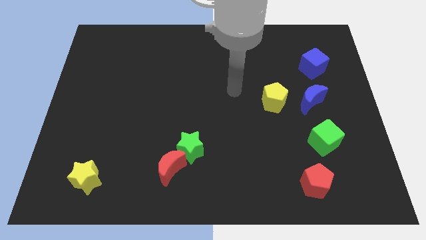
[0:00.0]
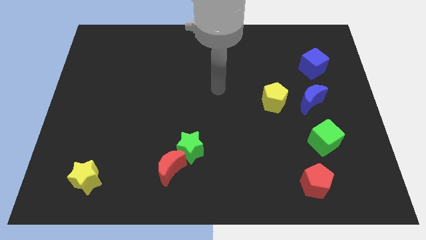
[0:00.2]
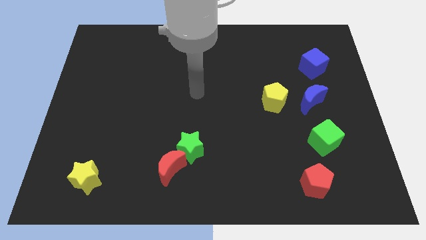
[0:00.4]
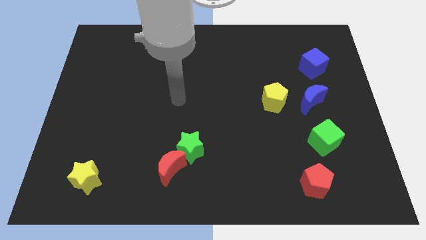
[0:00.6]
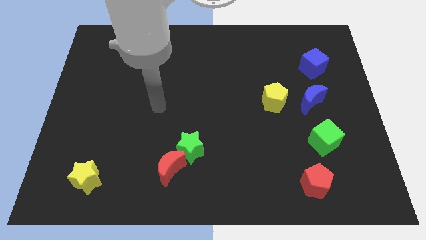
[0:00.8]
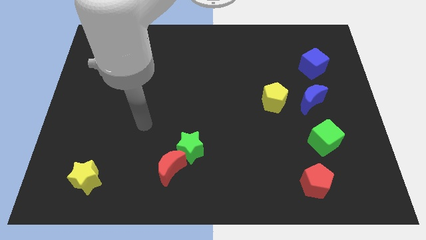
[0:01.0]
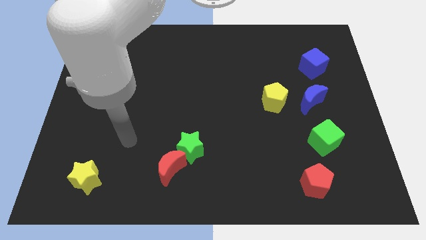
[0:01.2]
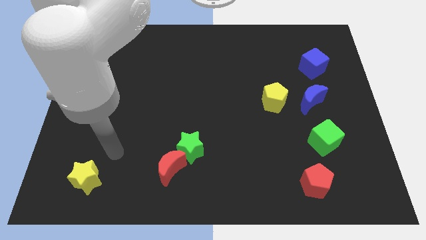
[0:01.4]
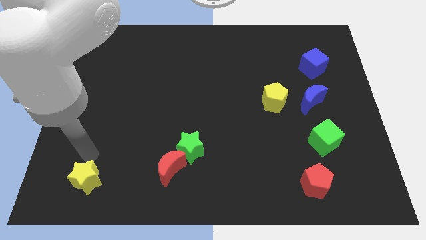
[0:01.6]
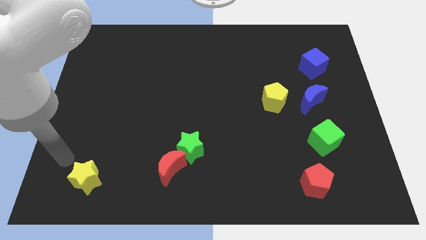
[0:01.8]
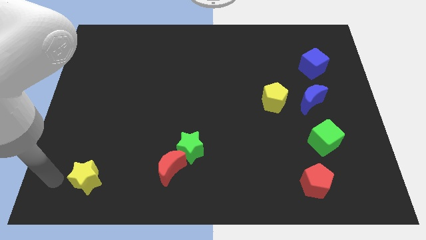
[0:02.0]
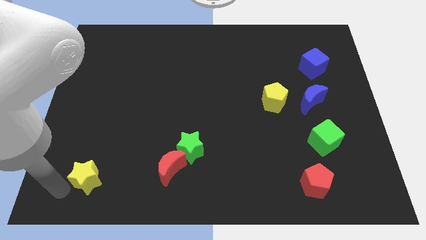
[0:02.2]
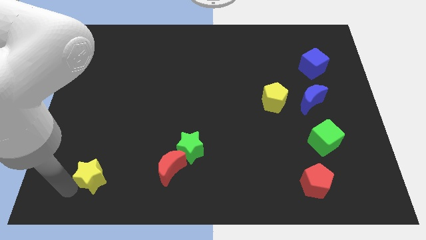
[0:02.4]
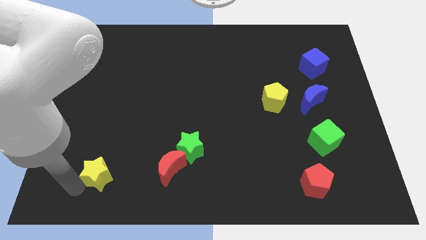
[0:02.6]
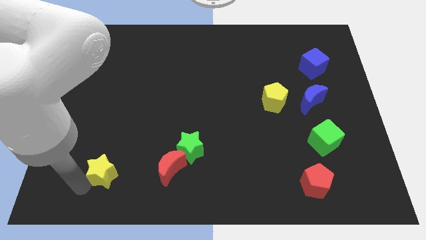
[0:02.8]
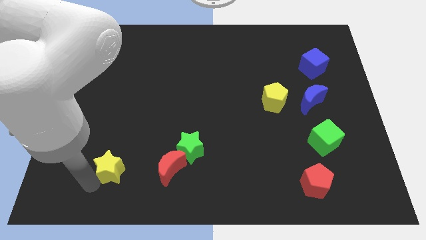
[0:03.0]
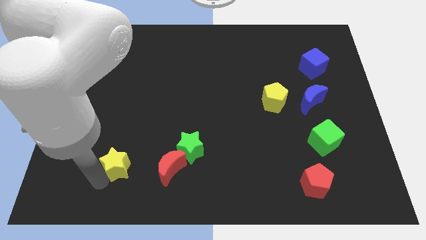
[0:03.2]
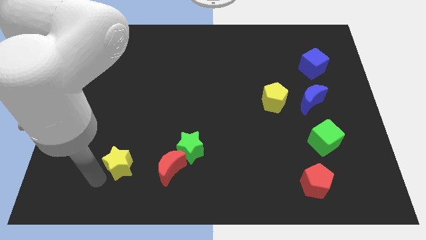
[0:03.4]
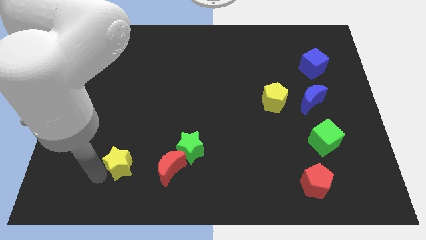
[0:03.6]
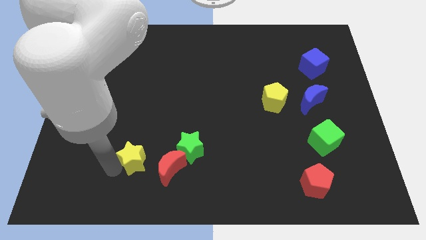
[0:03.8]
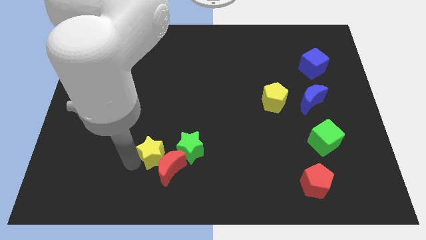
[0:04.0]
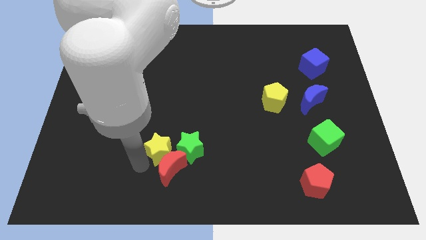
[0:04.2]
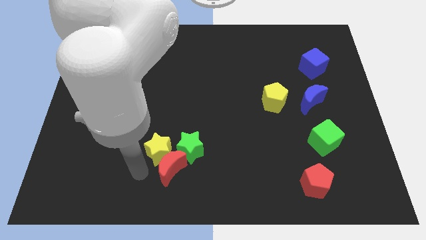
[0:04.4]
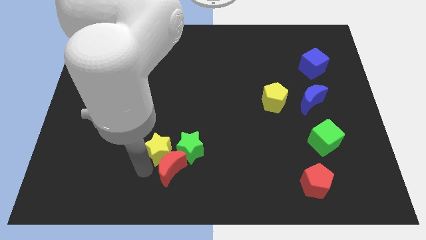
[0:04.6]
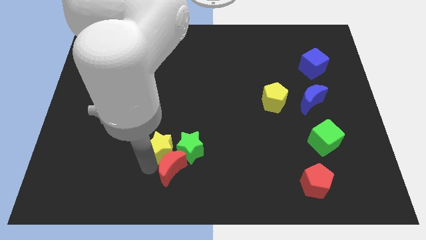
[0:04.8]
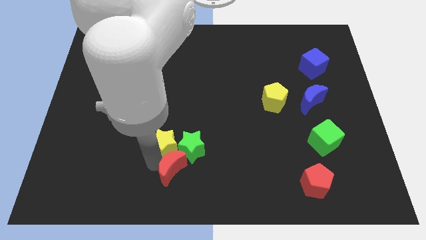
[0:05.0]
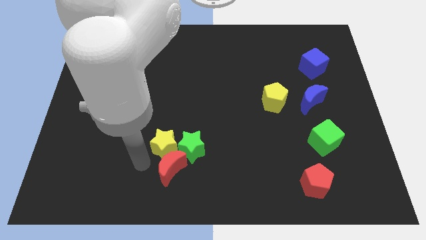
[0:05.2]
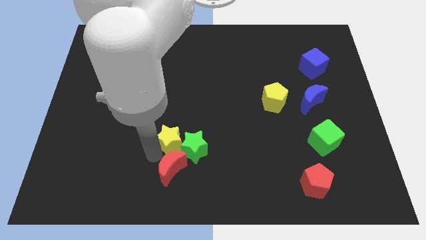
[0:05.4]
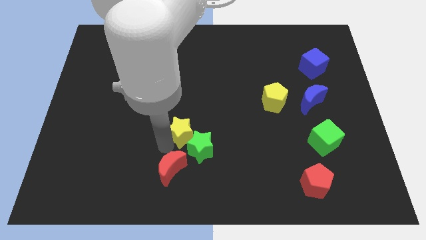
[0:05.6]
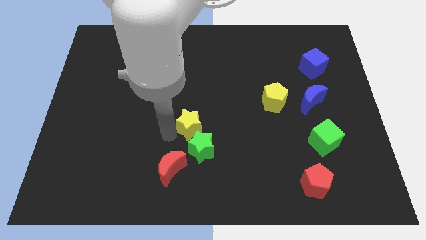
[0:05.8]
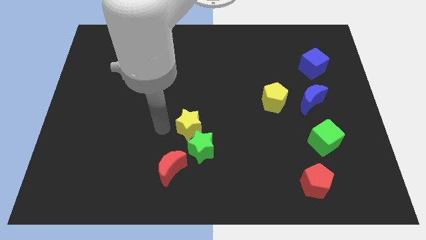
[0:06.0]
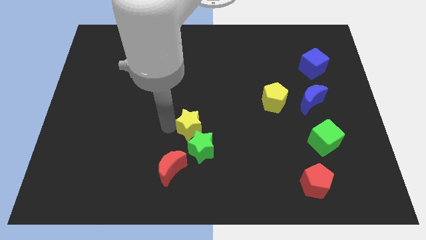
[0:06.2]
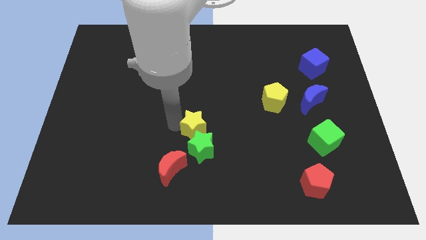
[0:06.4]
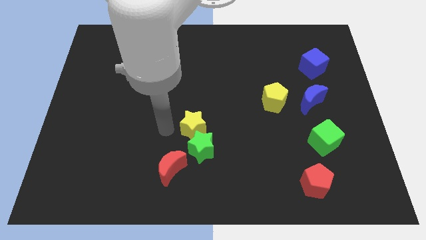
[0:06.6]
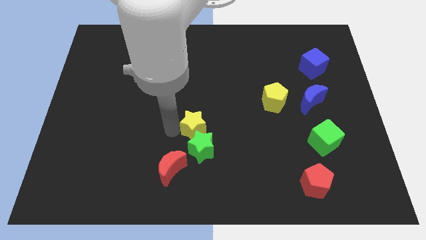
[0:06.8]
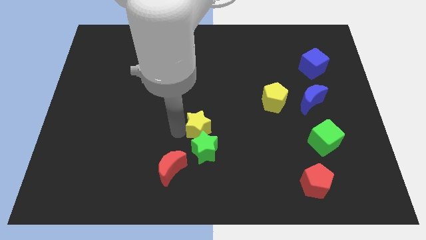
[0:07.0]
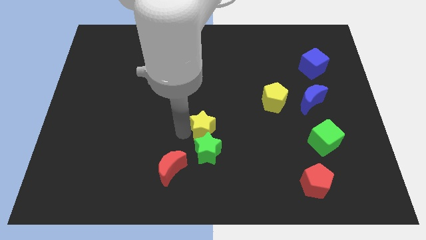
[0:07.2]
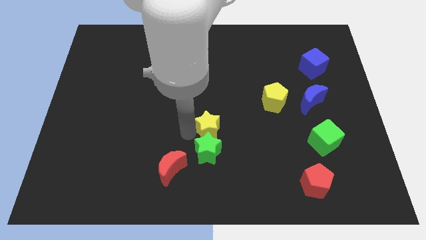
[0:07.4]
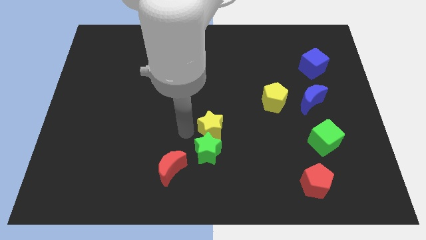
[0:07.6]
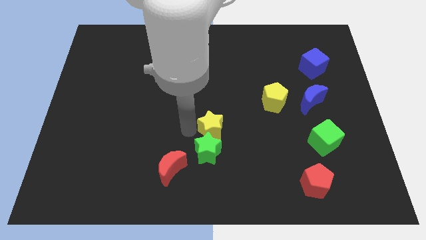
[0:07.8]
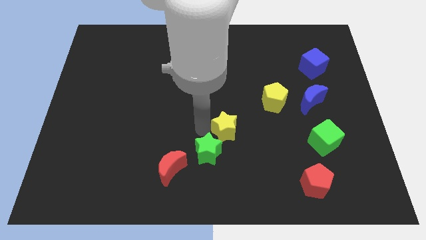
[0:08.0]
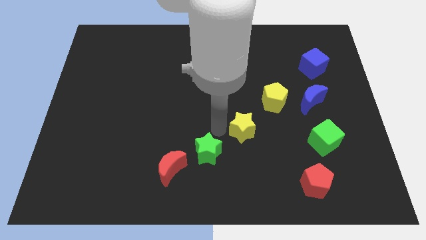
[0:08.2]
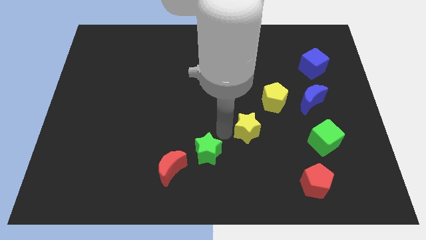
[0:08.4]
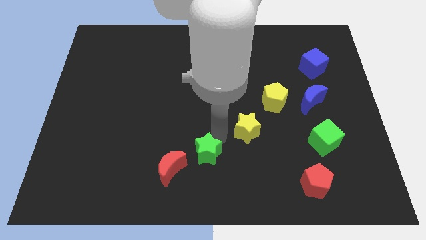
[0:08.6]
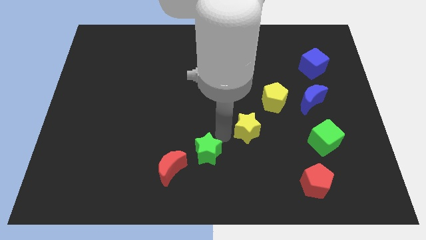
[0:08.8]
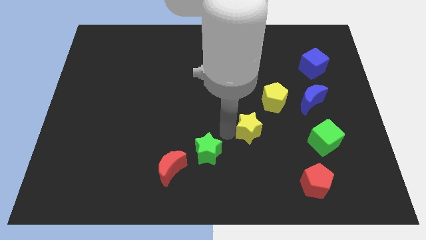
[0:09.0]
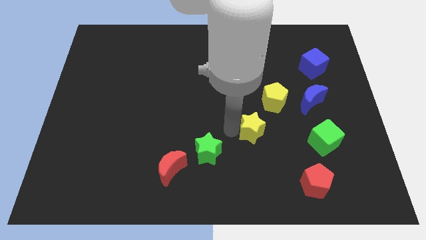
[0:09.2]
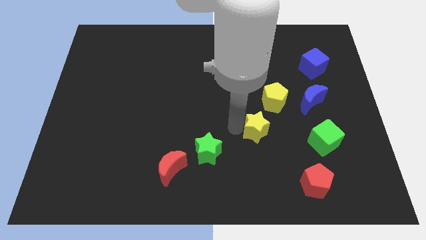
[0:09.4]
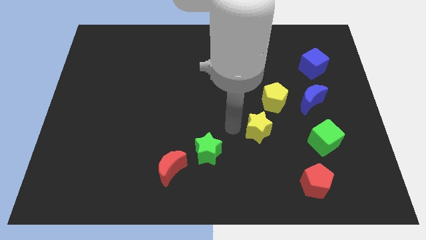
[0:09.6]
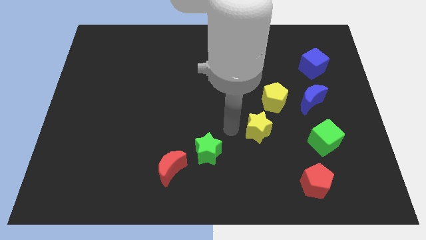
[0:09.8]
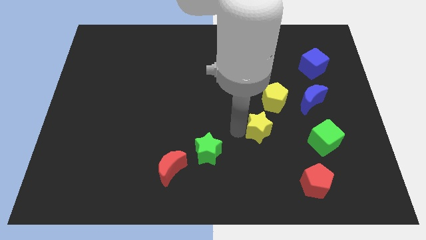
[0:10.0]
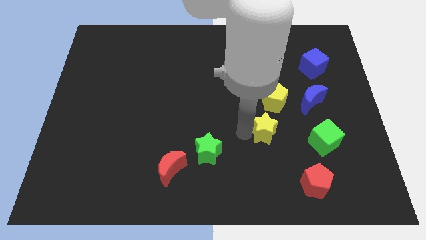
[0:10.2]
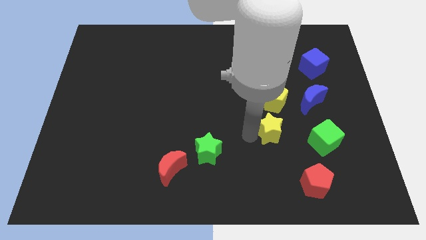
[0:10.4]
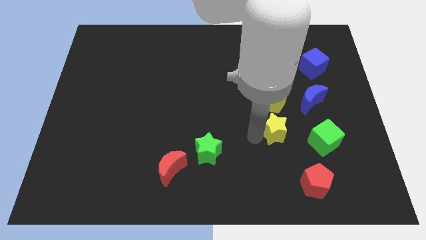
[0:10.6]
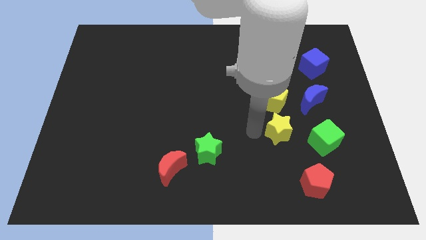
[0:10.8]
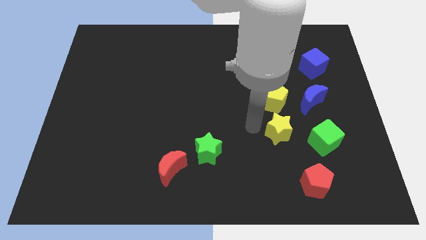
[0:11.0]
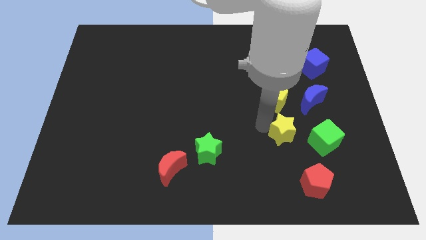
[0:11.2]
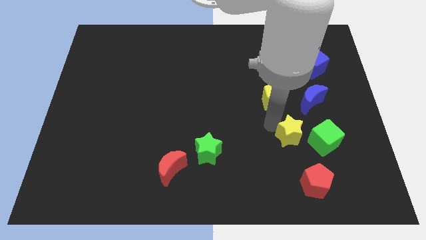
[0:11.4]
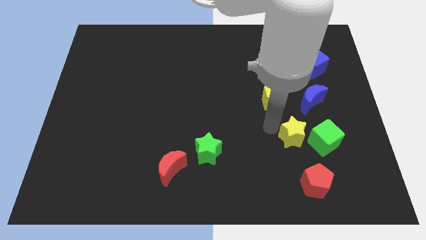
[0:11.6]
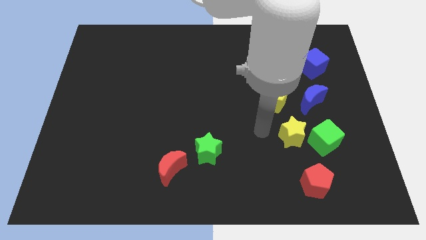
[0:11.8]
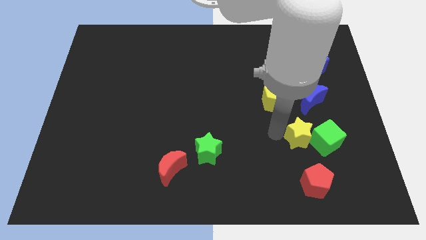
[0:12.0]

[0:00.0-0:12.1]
push the yellow star close to the green cube
